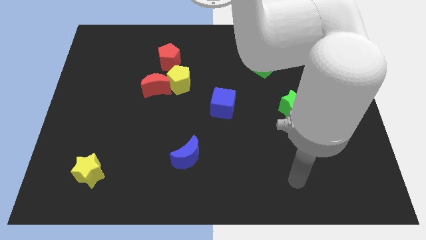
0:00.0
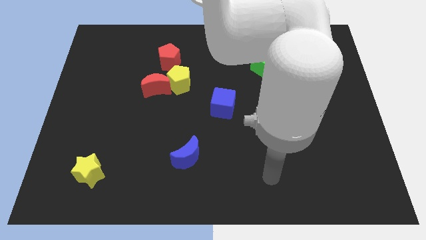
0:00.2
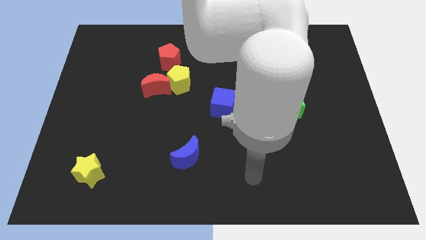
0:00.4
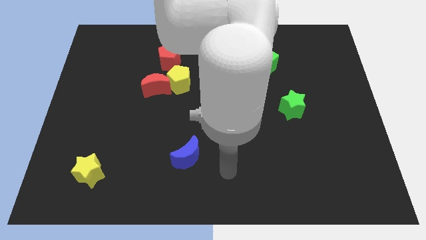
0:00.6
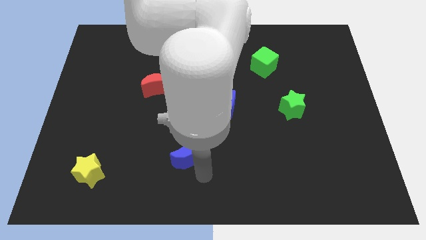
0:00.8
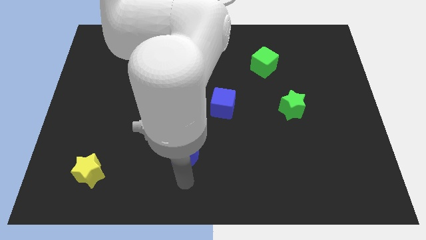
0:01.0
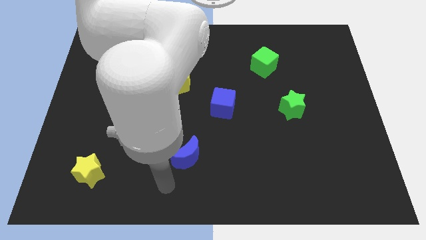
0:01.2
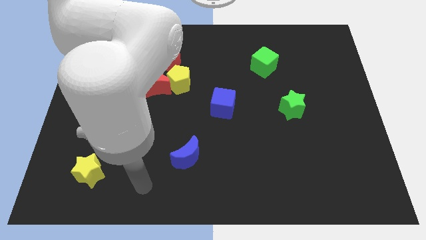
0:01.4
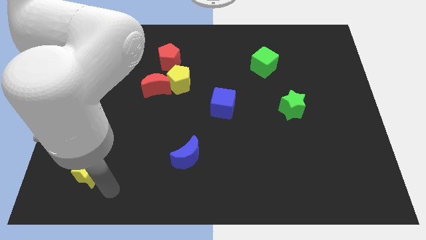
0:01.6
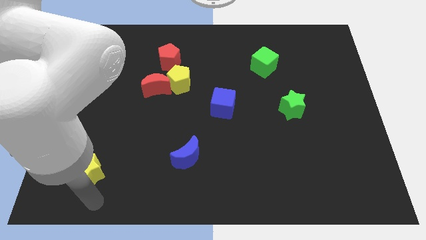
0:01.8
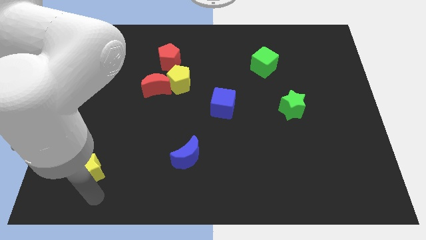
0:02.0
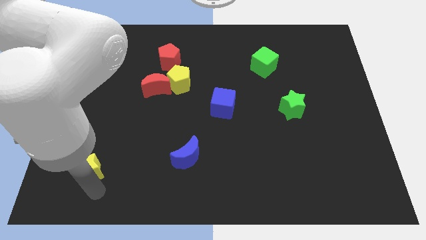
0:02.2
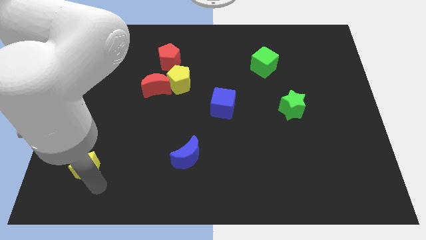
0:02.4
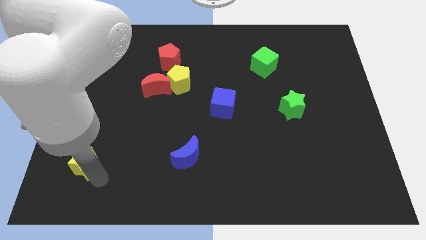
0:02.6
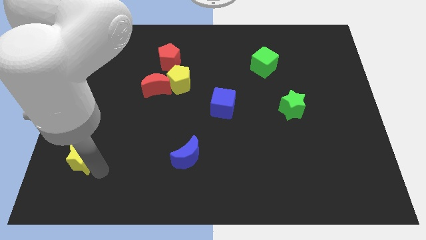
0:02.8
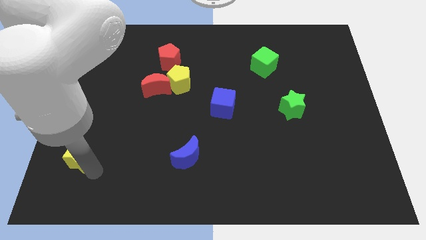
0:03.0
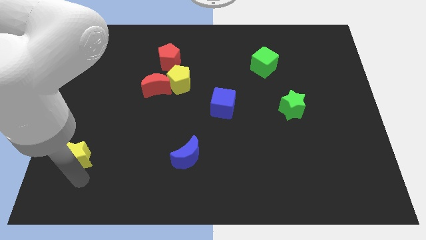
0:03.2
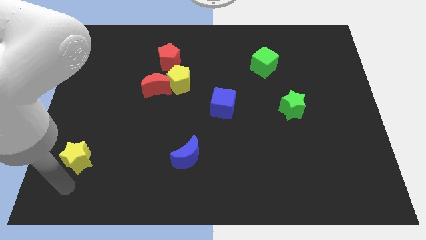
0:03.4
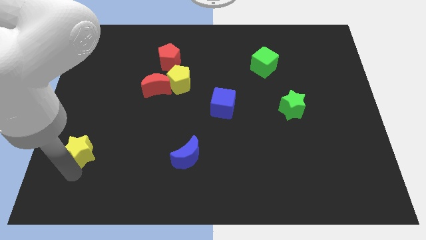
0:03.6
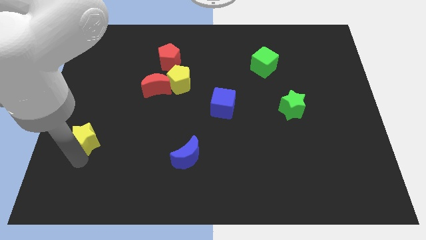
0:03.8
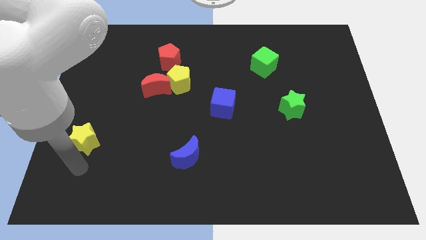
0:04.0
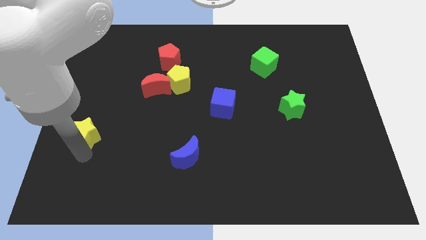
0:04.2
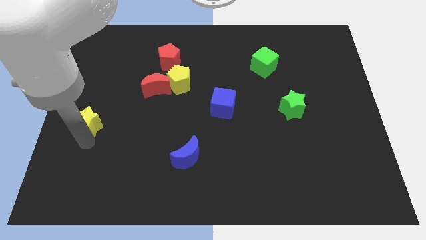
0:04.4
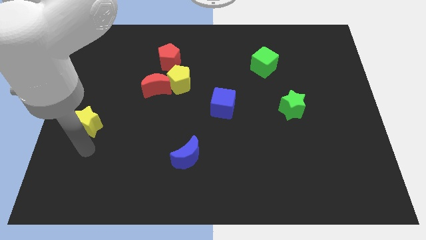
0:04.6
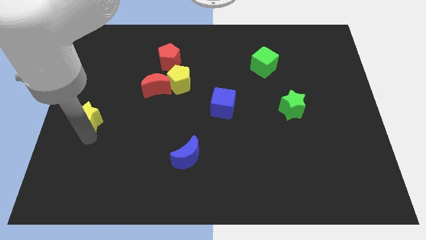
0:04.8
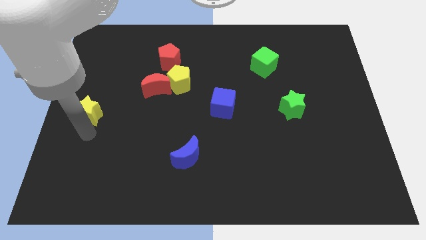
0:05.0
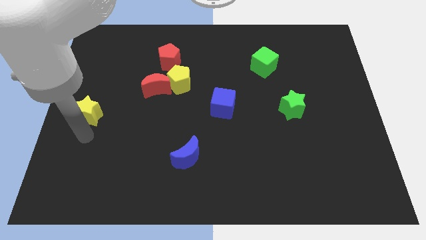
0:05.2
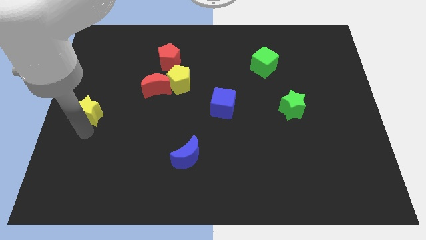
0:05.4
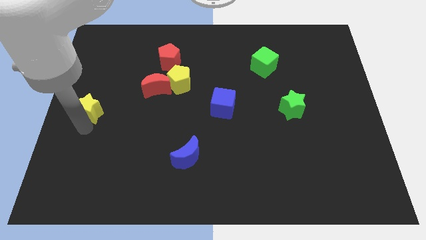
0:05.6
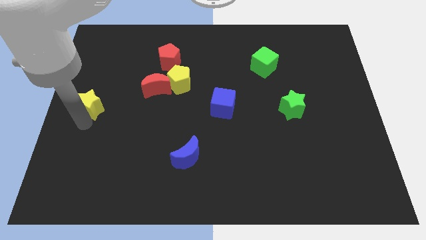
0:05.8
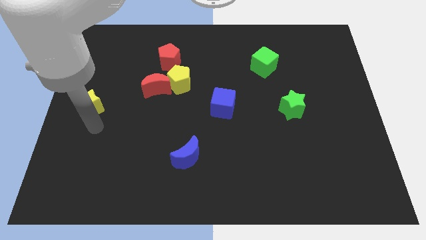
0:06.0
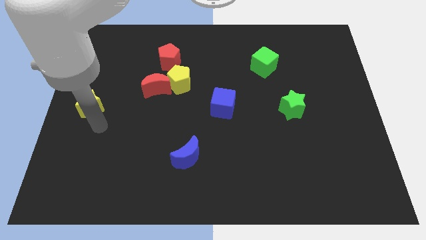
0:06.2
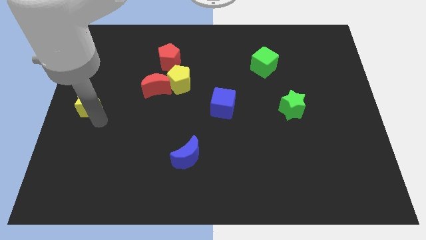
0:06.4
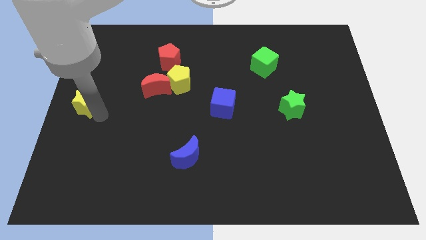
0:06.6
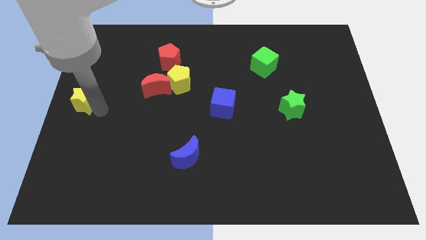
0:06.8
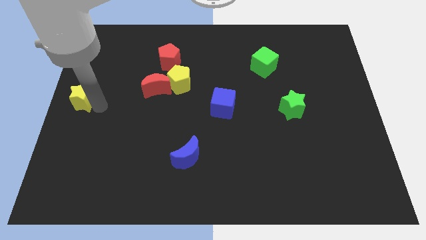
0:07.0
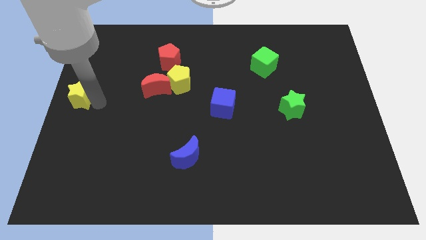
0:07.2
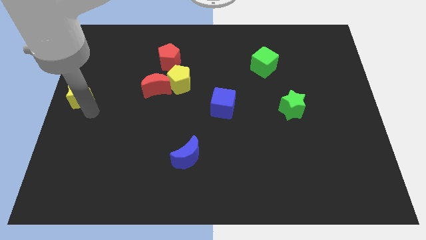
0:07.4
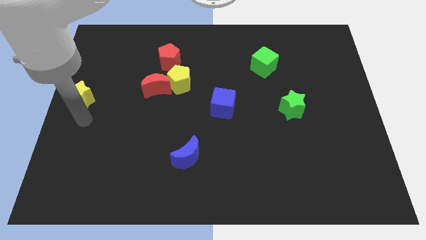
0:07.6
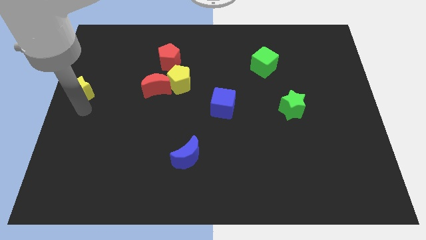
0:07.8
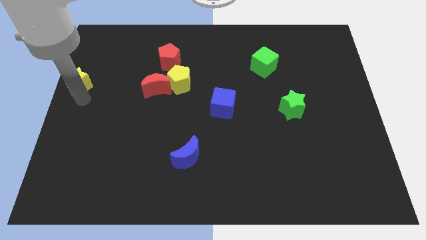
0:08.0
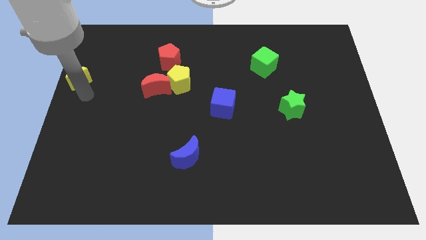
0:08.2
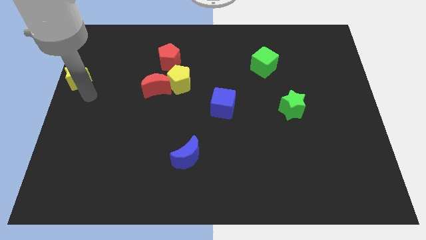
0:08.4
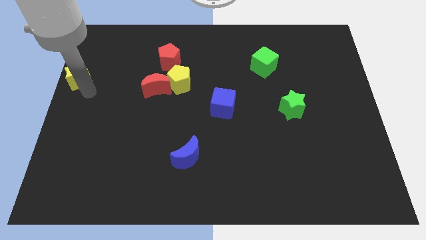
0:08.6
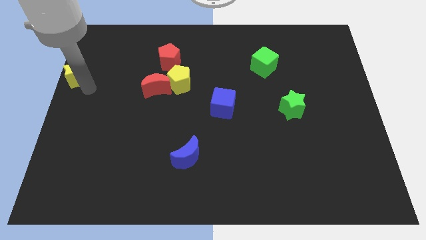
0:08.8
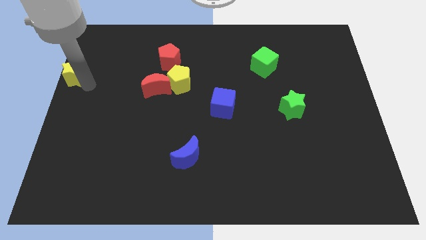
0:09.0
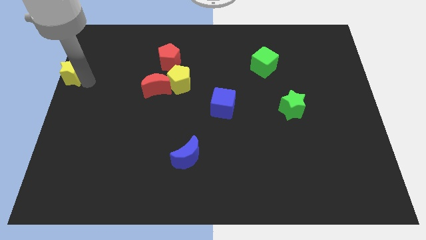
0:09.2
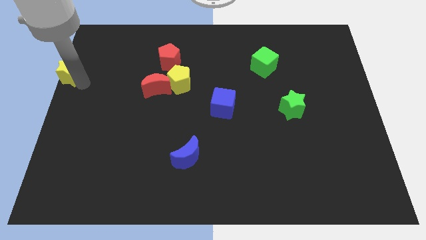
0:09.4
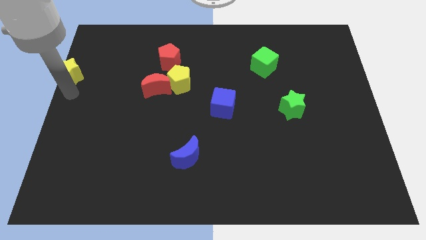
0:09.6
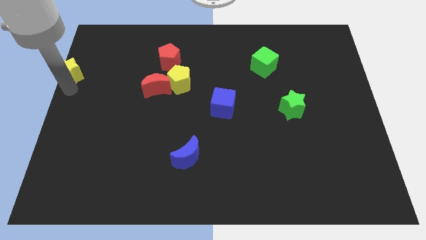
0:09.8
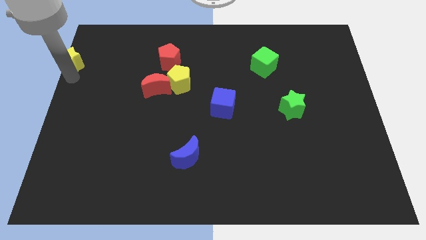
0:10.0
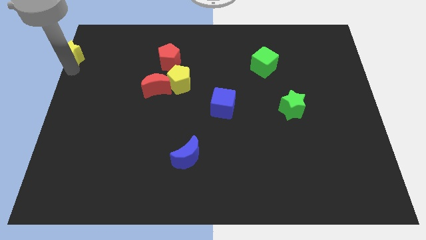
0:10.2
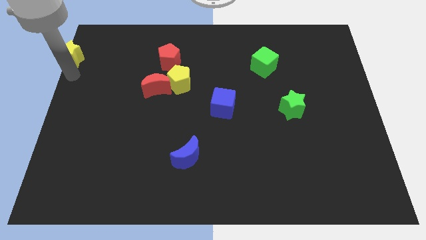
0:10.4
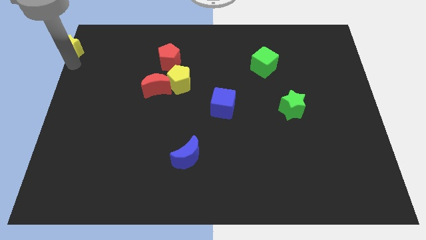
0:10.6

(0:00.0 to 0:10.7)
push the yellow star to the top left of the board
